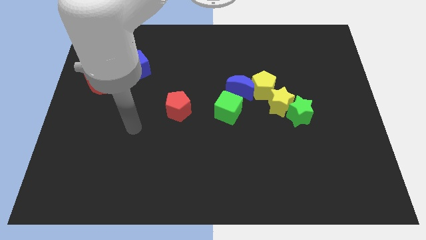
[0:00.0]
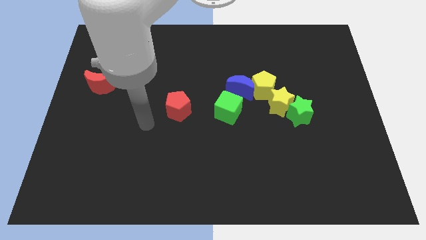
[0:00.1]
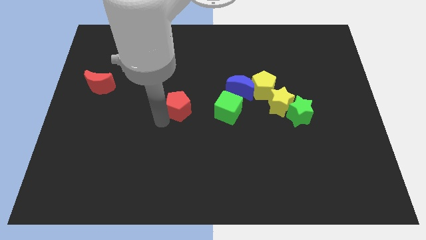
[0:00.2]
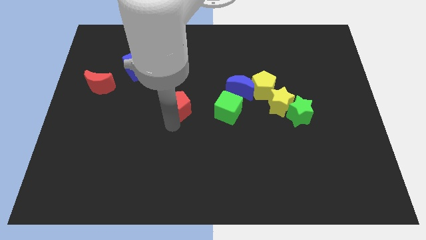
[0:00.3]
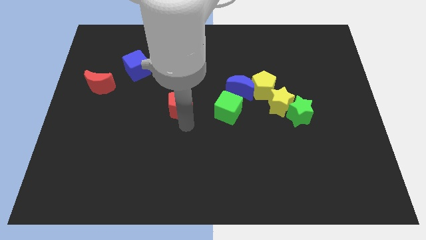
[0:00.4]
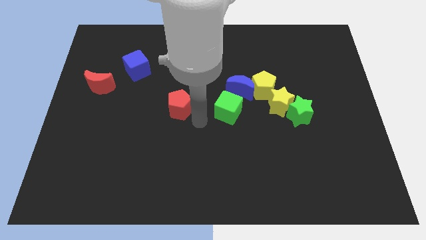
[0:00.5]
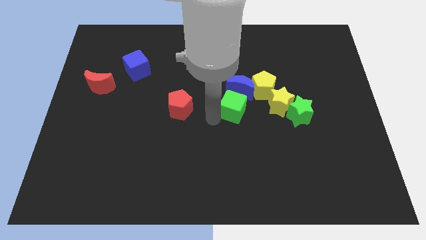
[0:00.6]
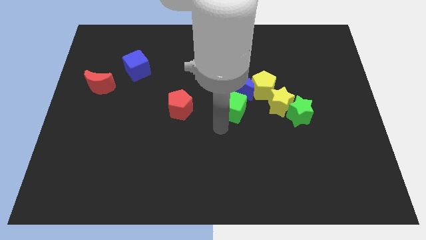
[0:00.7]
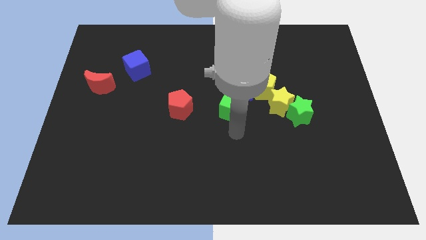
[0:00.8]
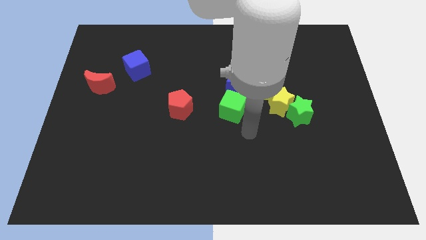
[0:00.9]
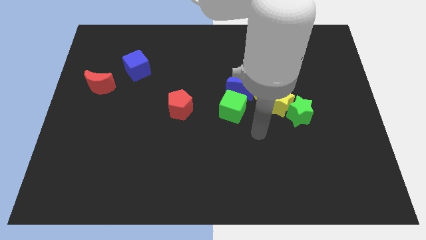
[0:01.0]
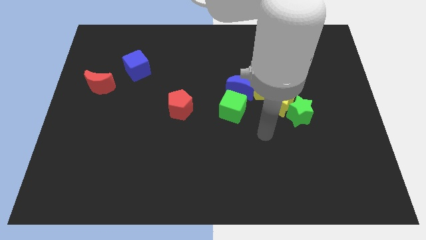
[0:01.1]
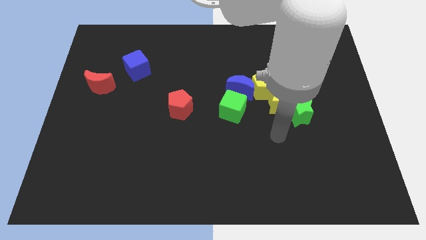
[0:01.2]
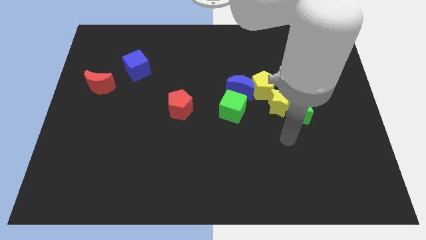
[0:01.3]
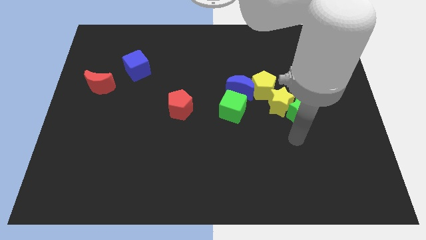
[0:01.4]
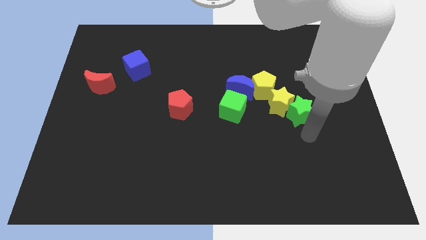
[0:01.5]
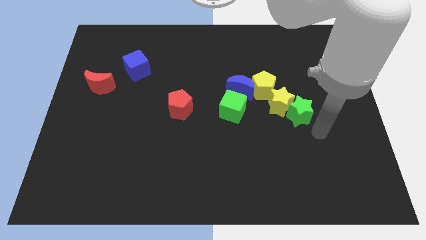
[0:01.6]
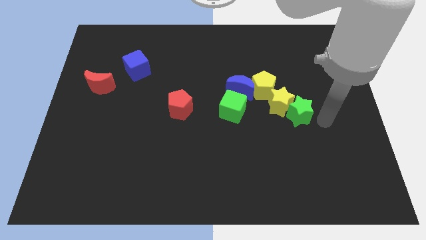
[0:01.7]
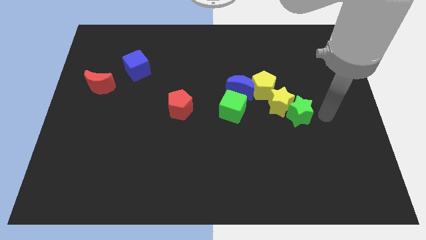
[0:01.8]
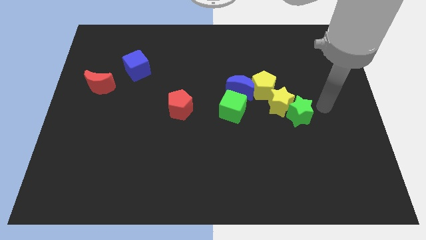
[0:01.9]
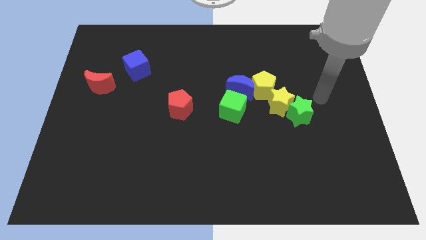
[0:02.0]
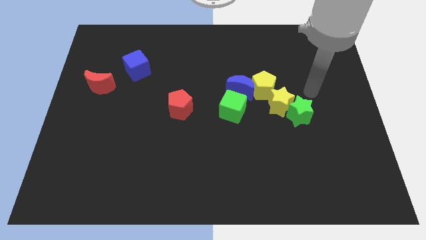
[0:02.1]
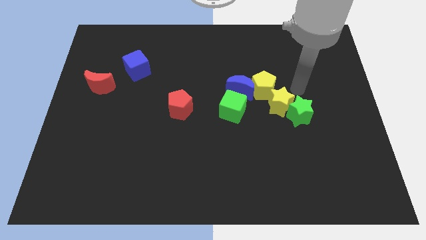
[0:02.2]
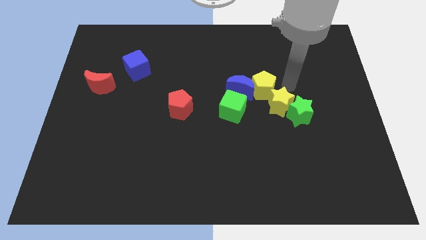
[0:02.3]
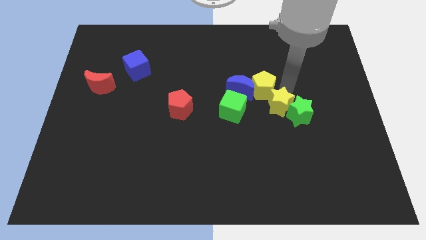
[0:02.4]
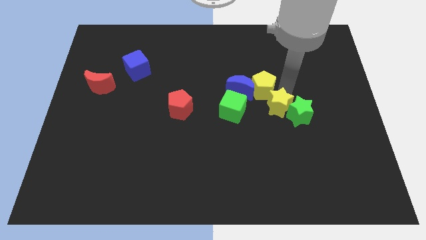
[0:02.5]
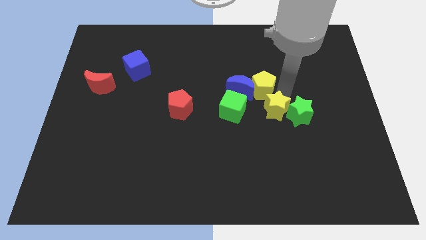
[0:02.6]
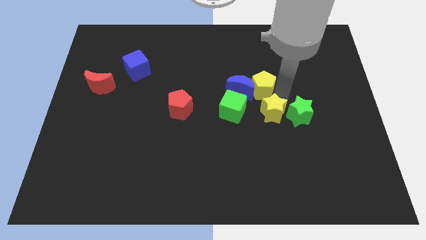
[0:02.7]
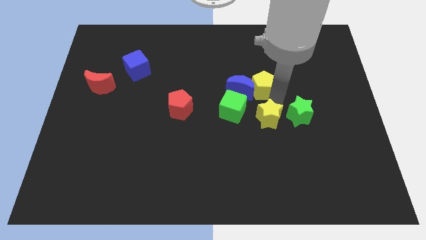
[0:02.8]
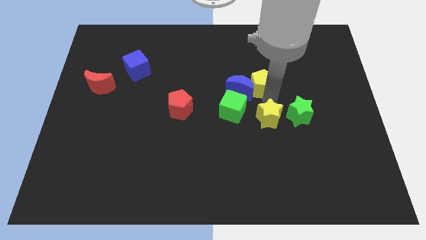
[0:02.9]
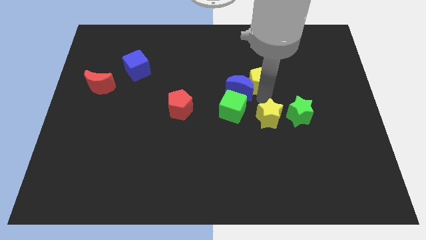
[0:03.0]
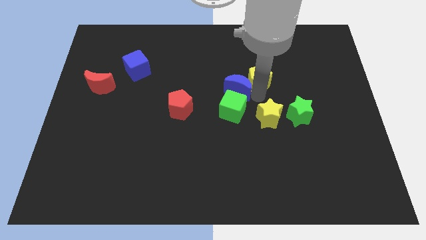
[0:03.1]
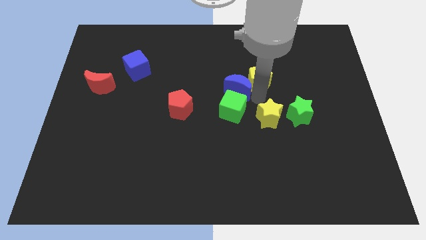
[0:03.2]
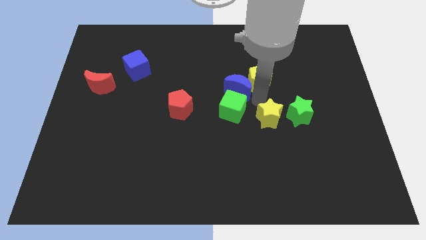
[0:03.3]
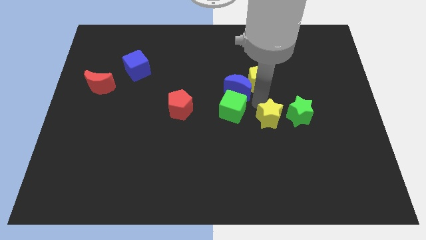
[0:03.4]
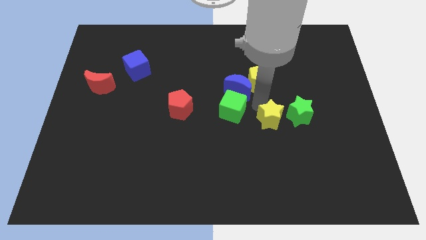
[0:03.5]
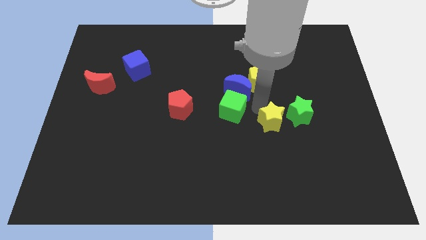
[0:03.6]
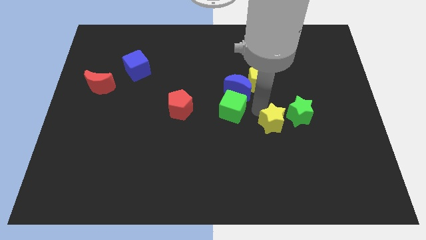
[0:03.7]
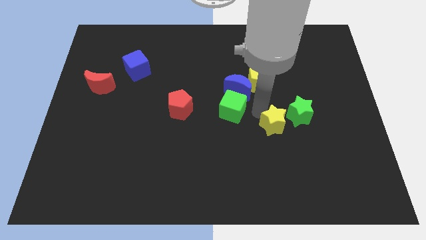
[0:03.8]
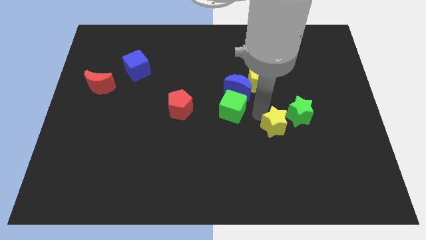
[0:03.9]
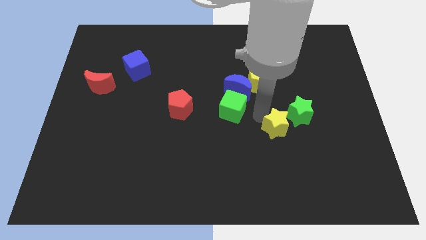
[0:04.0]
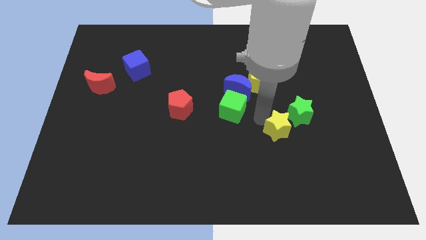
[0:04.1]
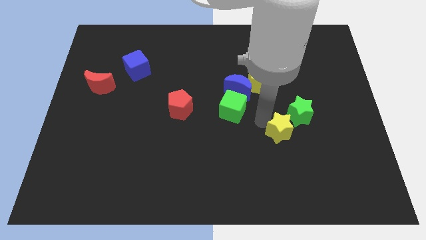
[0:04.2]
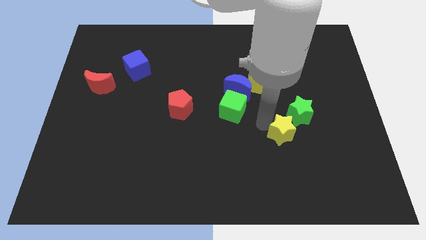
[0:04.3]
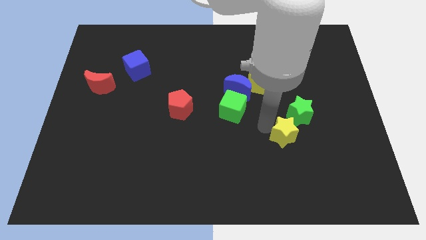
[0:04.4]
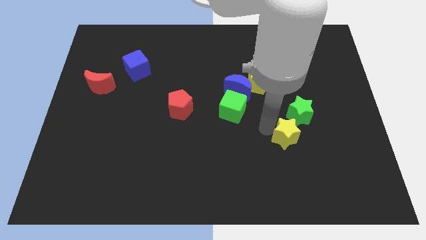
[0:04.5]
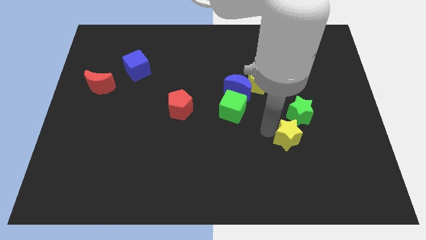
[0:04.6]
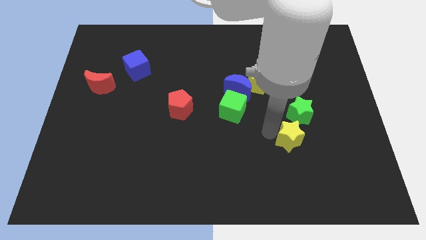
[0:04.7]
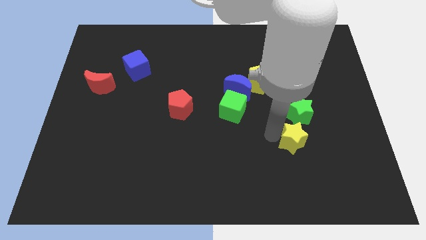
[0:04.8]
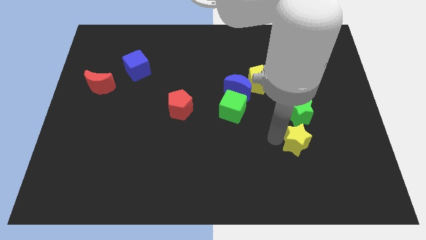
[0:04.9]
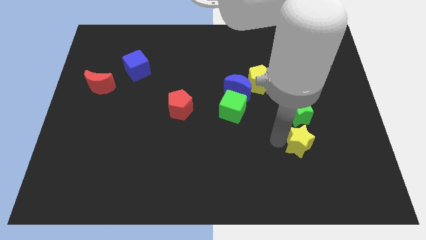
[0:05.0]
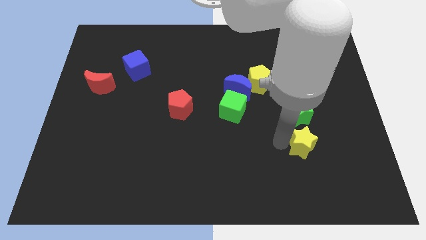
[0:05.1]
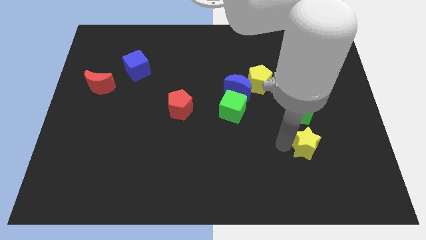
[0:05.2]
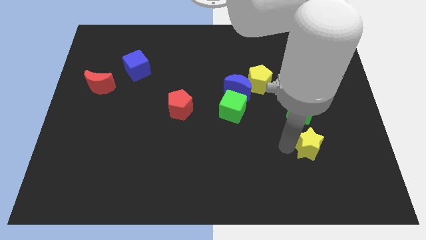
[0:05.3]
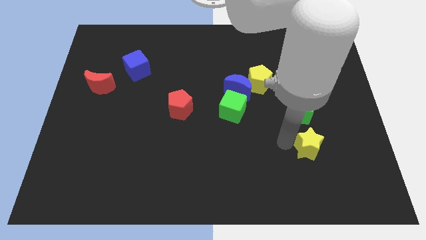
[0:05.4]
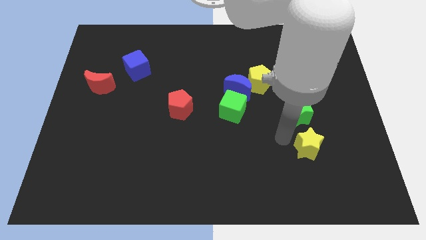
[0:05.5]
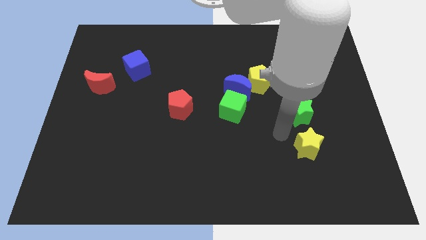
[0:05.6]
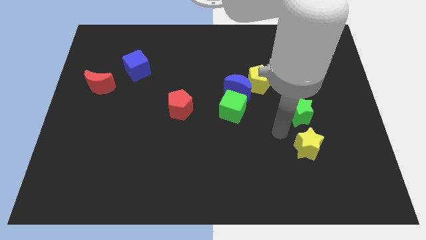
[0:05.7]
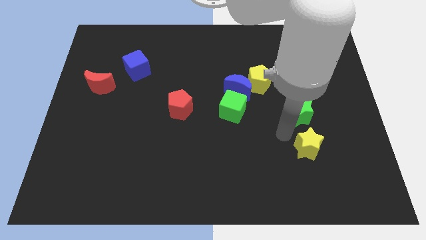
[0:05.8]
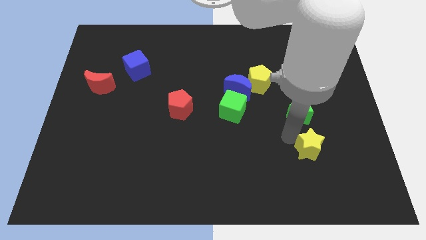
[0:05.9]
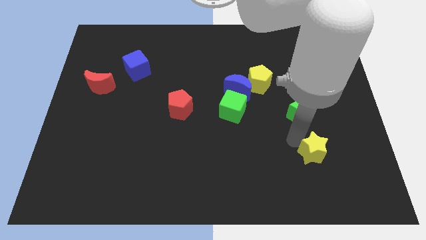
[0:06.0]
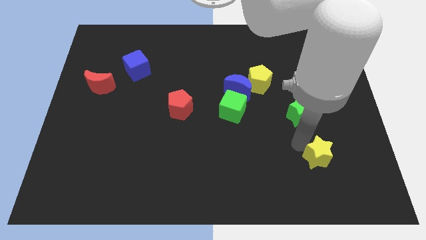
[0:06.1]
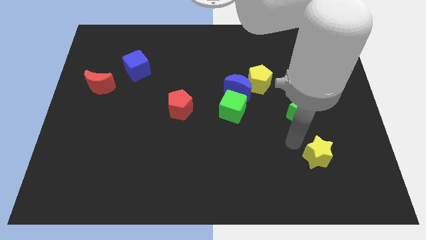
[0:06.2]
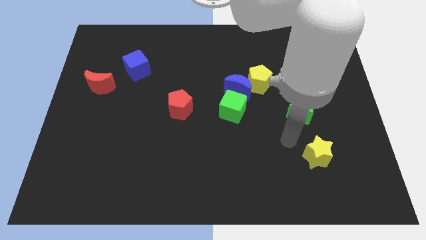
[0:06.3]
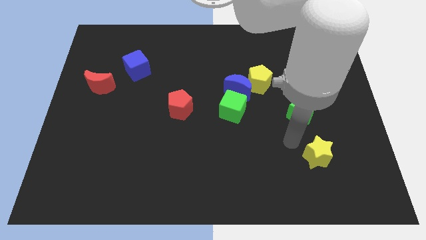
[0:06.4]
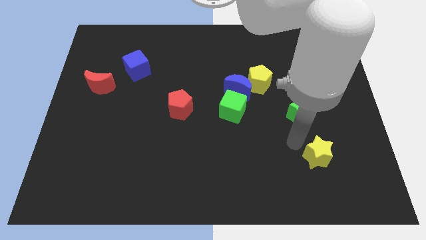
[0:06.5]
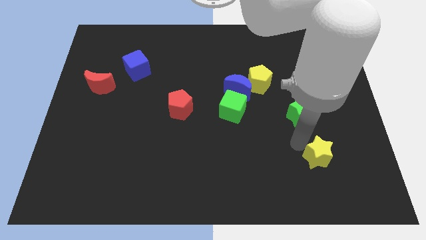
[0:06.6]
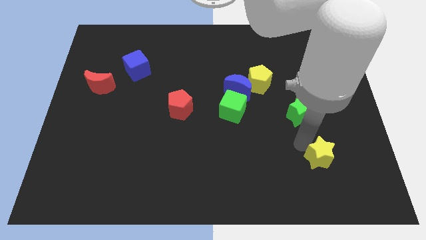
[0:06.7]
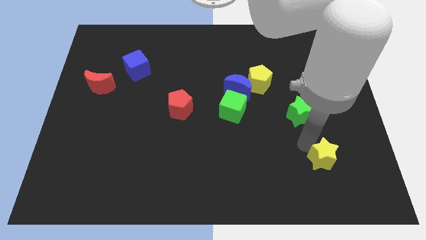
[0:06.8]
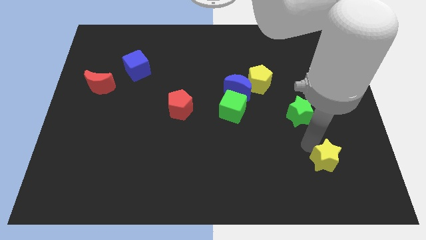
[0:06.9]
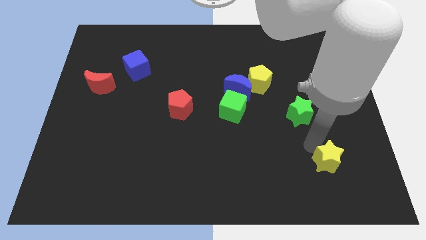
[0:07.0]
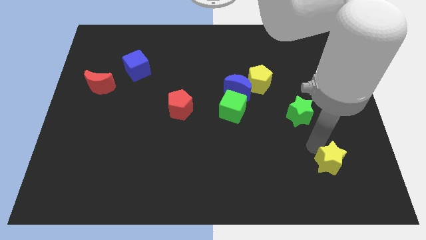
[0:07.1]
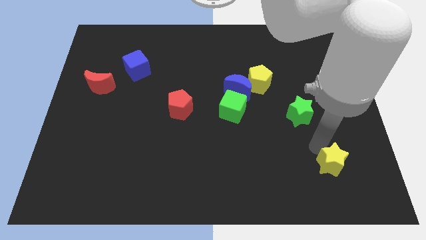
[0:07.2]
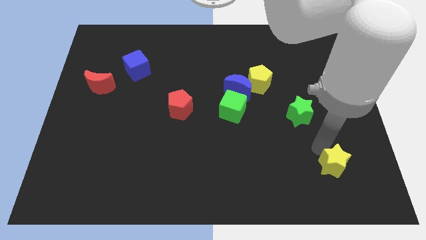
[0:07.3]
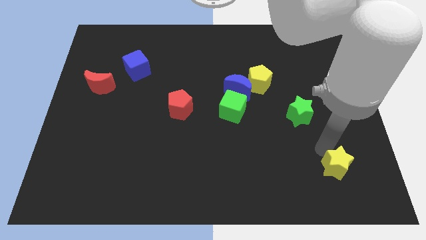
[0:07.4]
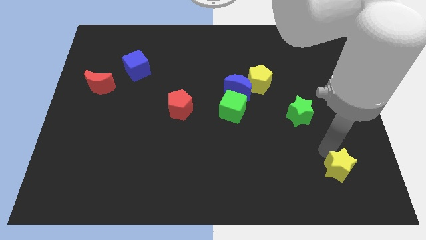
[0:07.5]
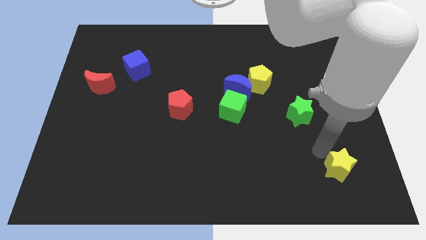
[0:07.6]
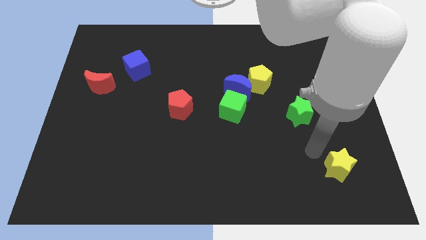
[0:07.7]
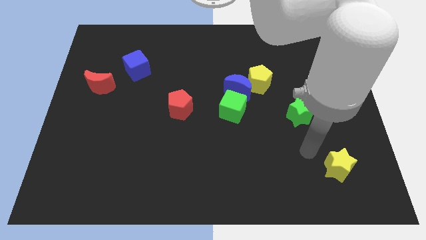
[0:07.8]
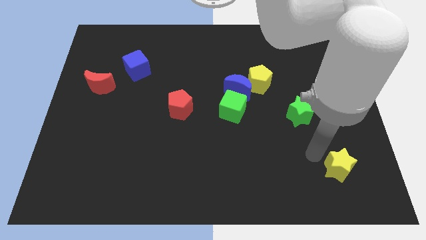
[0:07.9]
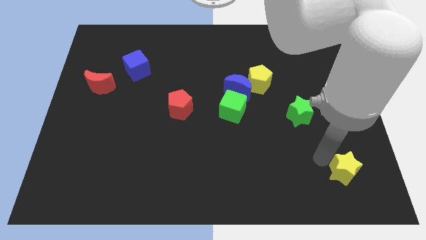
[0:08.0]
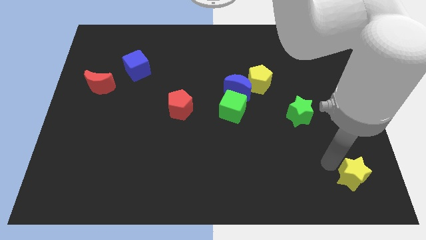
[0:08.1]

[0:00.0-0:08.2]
slide the yellow star to the bottom right
